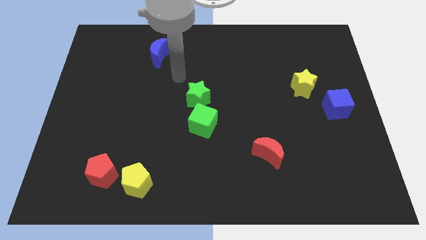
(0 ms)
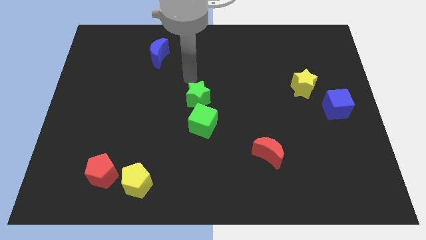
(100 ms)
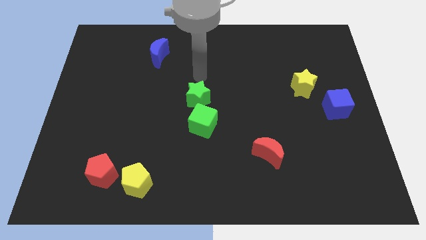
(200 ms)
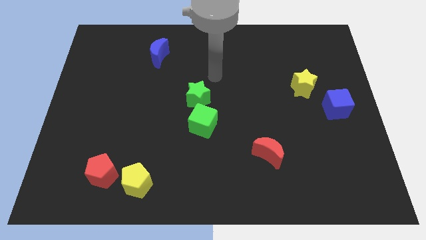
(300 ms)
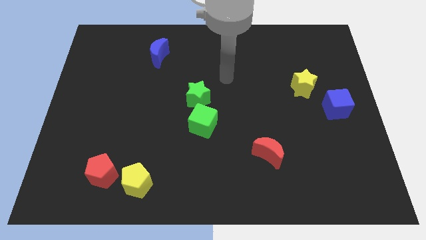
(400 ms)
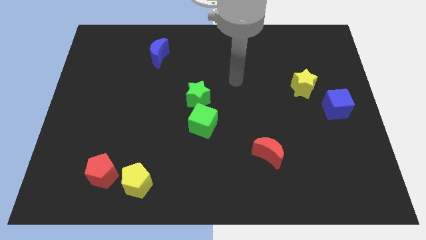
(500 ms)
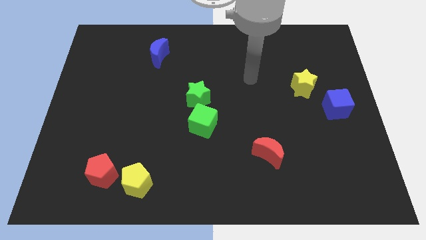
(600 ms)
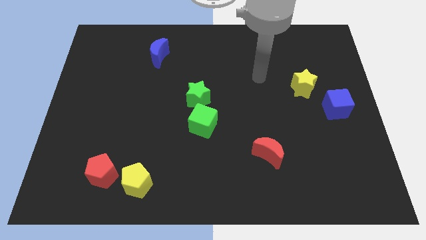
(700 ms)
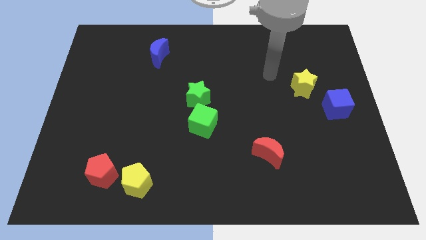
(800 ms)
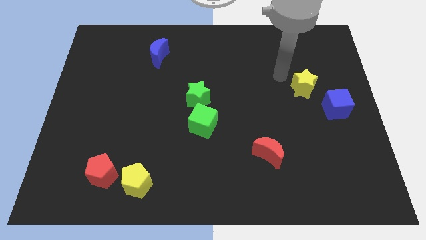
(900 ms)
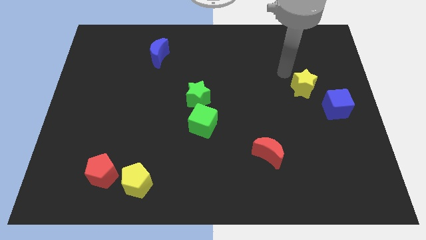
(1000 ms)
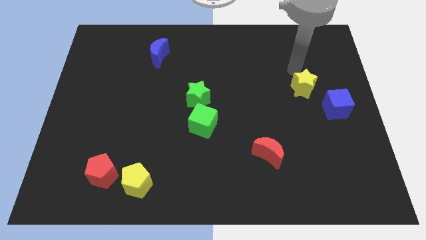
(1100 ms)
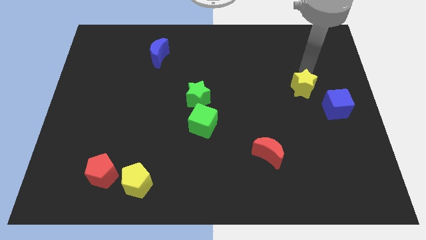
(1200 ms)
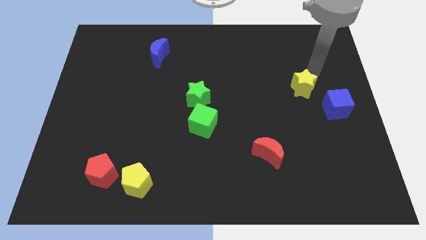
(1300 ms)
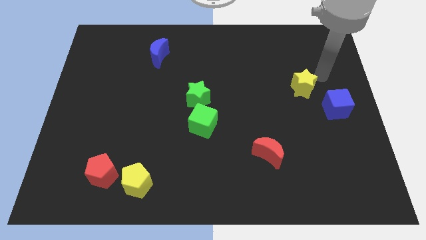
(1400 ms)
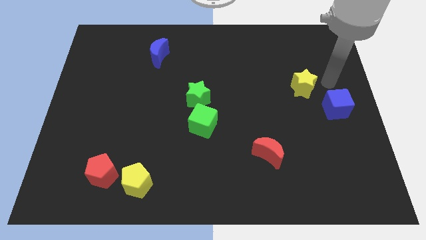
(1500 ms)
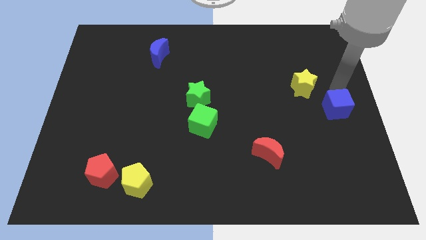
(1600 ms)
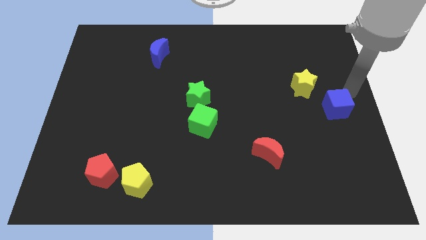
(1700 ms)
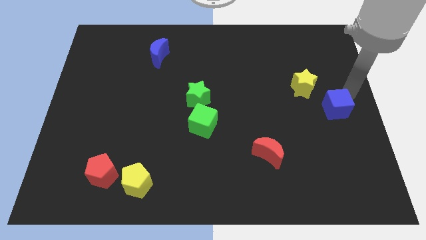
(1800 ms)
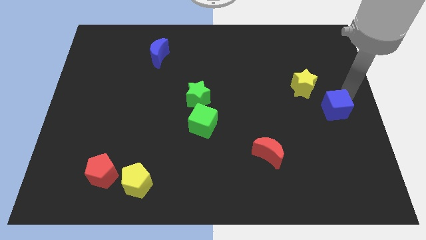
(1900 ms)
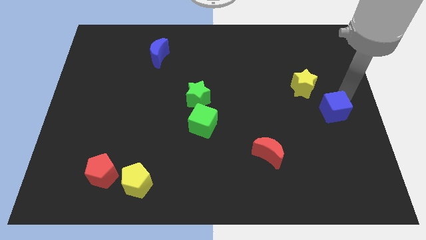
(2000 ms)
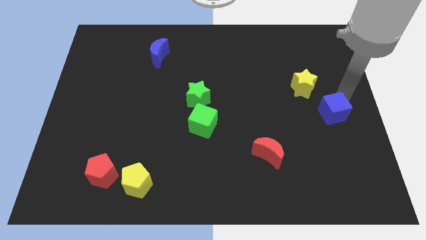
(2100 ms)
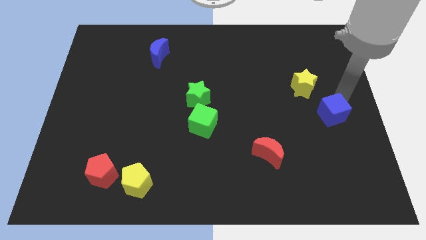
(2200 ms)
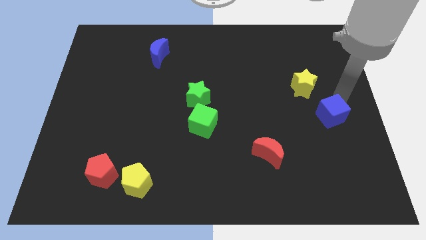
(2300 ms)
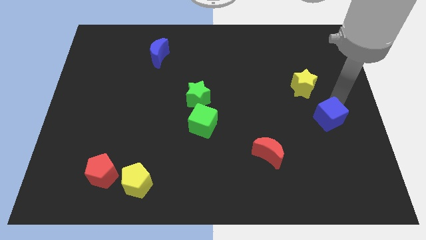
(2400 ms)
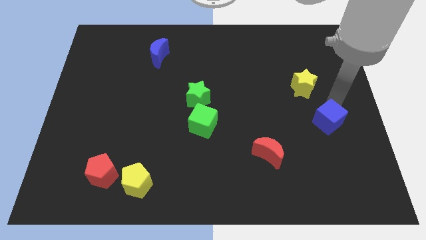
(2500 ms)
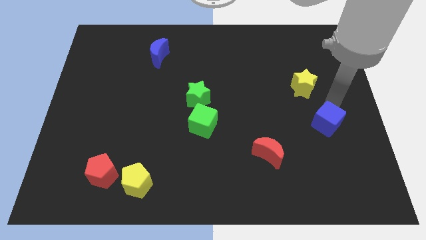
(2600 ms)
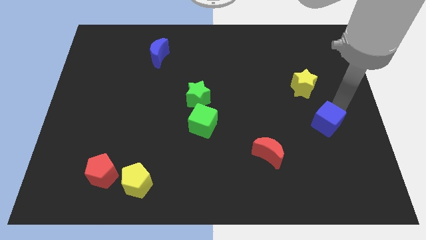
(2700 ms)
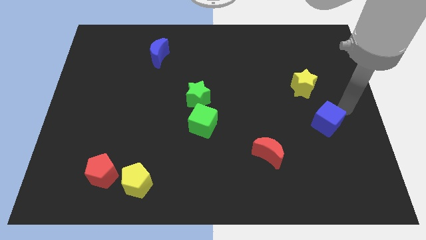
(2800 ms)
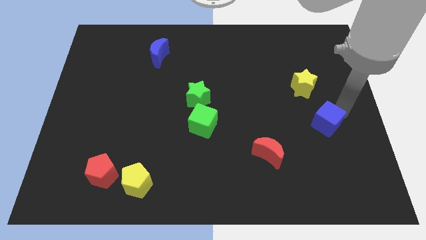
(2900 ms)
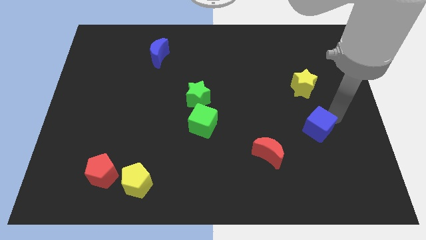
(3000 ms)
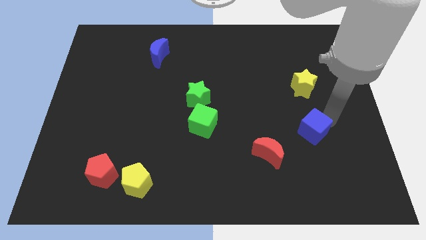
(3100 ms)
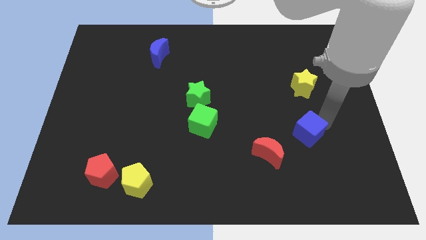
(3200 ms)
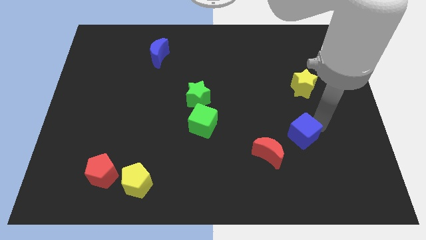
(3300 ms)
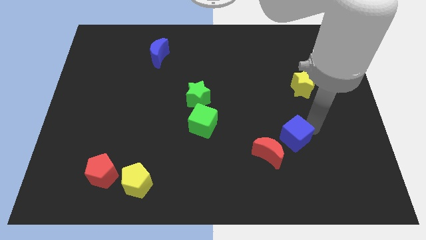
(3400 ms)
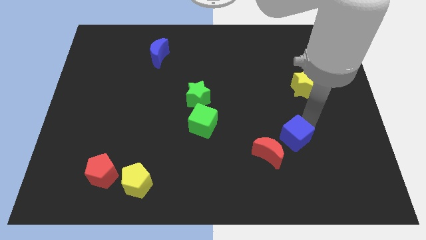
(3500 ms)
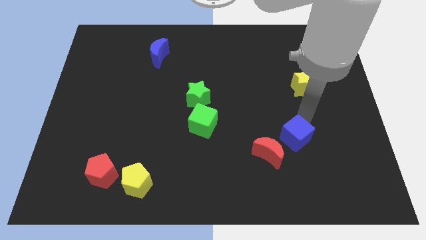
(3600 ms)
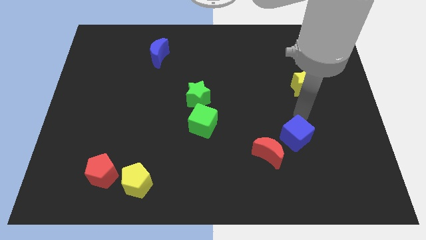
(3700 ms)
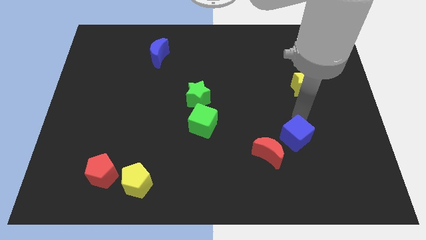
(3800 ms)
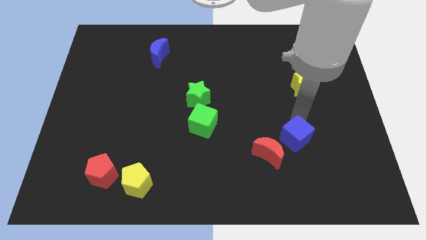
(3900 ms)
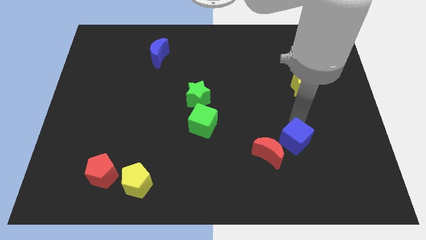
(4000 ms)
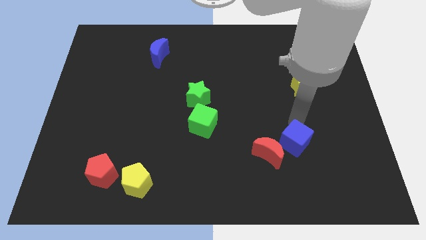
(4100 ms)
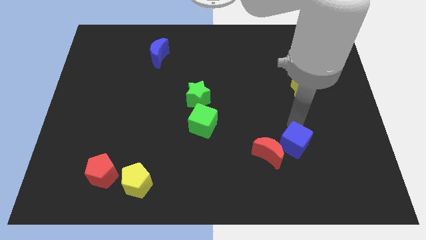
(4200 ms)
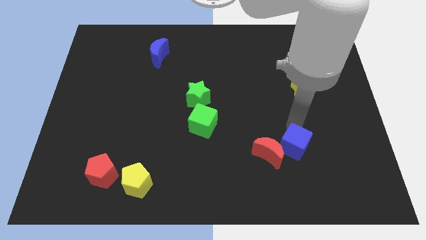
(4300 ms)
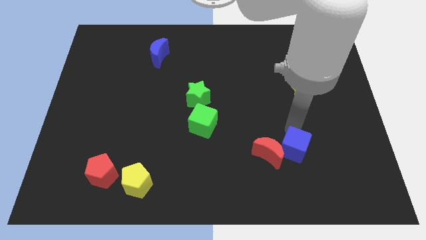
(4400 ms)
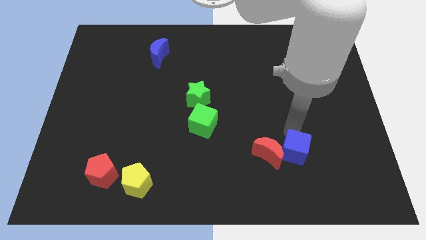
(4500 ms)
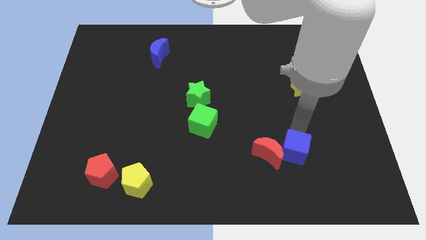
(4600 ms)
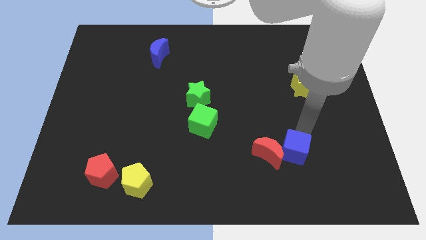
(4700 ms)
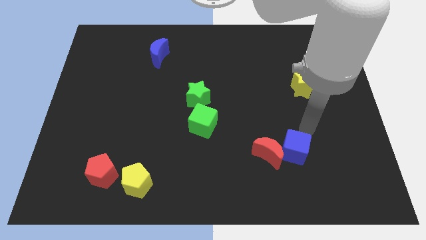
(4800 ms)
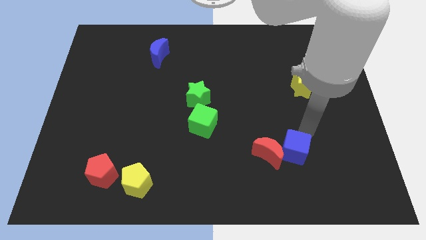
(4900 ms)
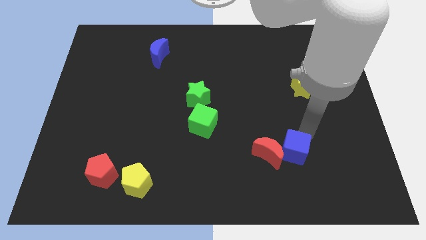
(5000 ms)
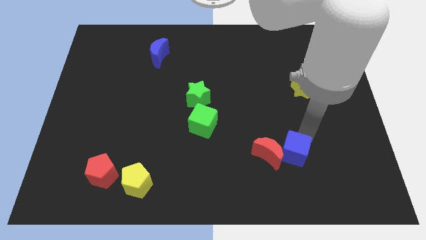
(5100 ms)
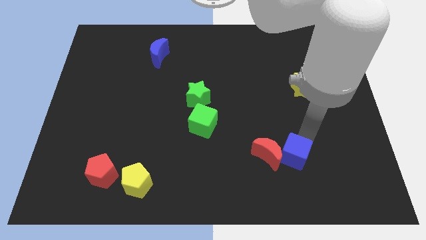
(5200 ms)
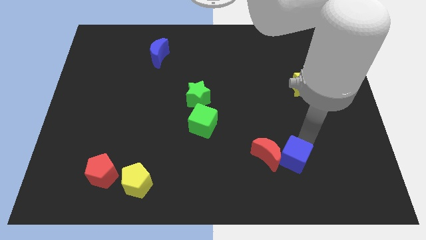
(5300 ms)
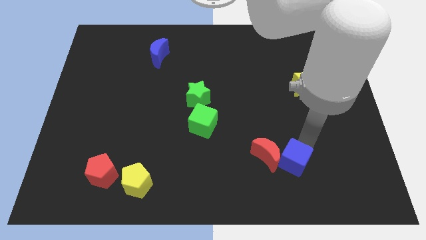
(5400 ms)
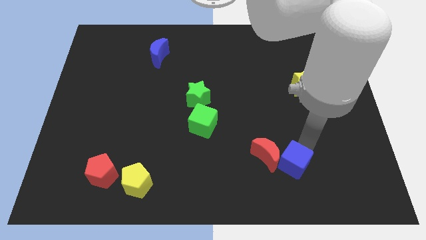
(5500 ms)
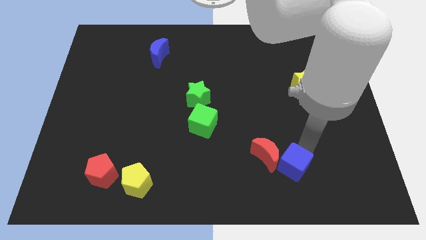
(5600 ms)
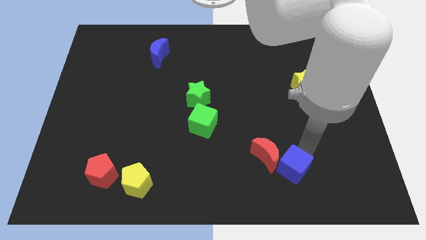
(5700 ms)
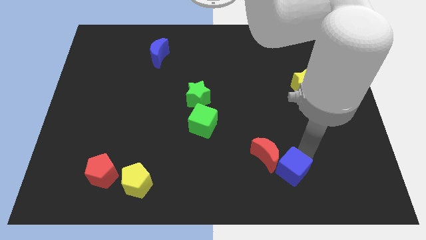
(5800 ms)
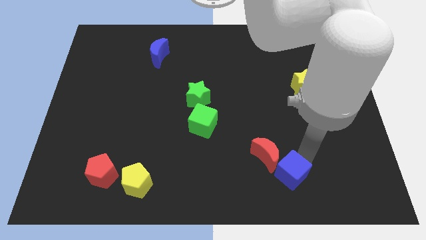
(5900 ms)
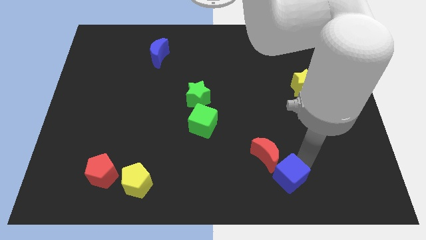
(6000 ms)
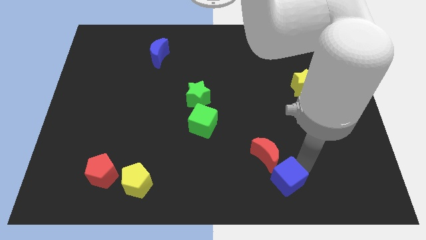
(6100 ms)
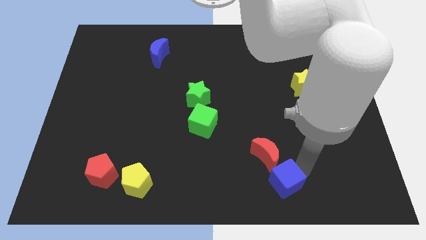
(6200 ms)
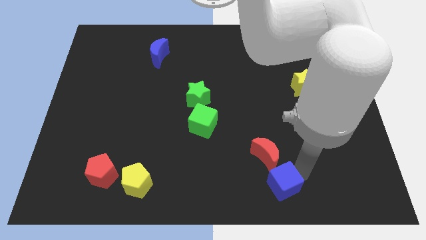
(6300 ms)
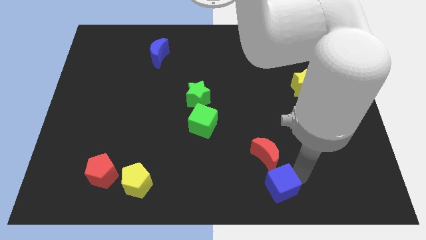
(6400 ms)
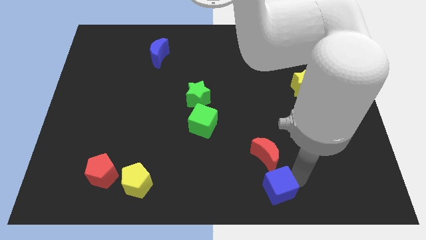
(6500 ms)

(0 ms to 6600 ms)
put the blue cube to the bottom side
